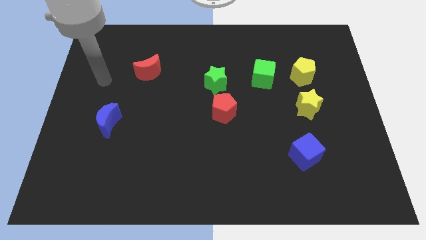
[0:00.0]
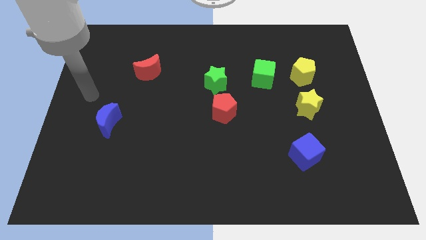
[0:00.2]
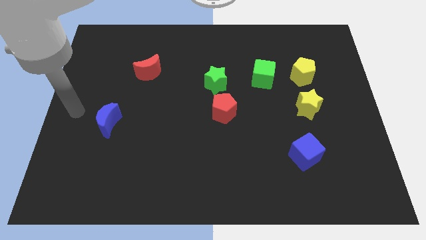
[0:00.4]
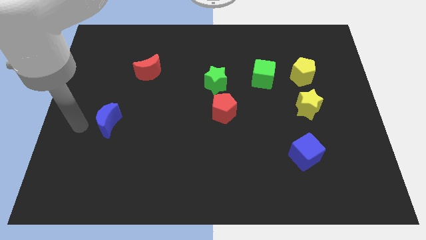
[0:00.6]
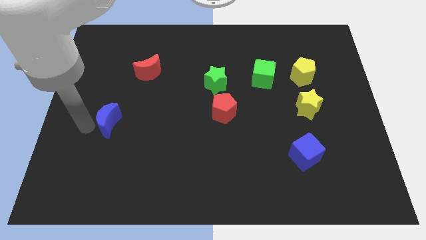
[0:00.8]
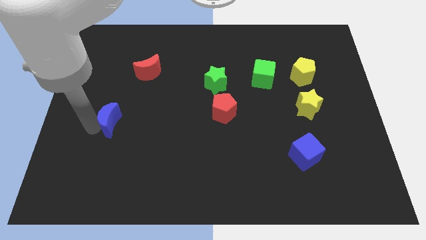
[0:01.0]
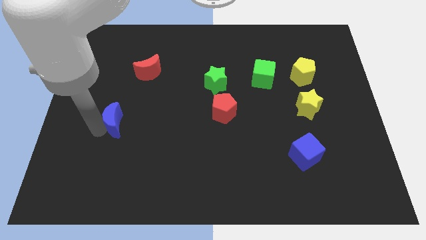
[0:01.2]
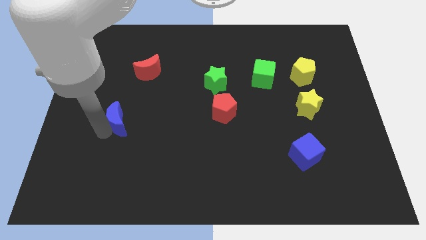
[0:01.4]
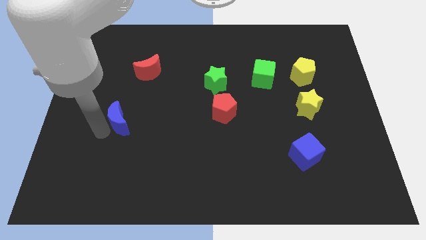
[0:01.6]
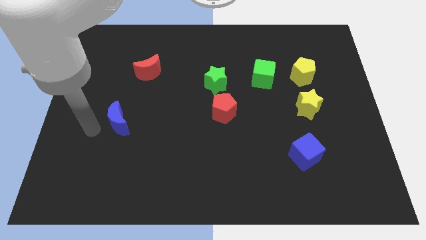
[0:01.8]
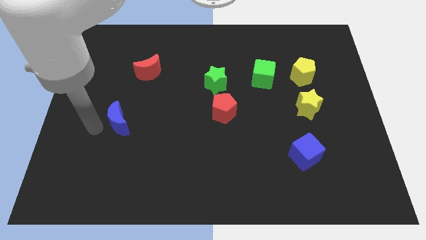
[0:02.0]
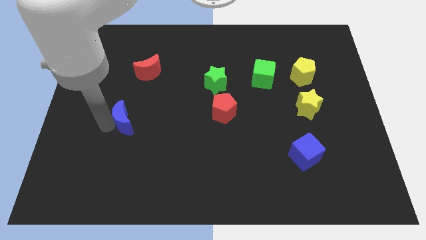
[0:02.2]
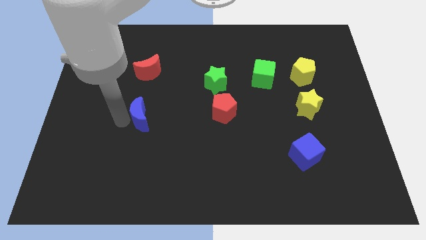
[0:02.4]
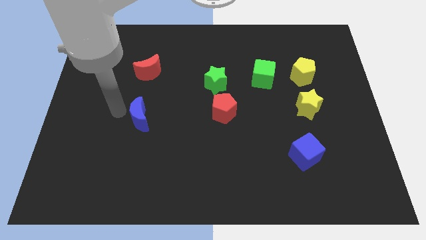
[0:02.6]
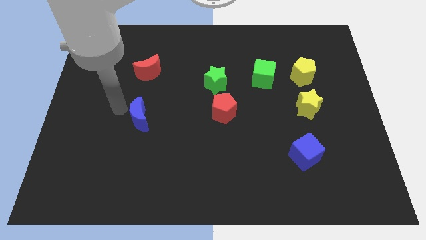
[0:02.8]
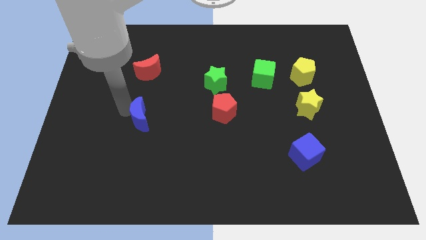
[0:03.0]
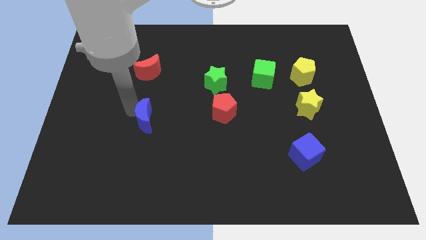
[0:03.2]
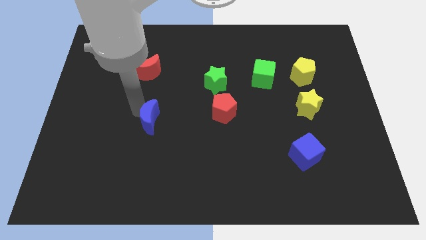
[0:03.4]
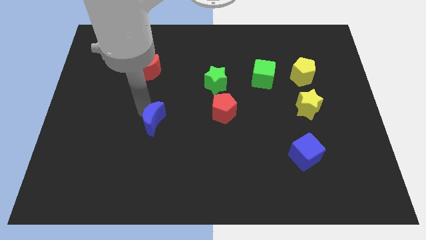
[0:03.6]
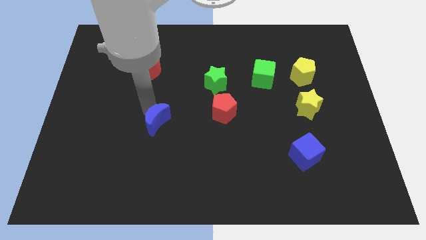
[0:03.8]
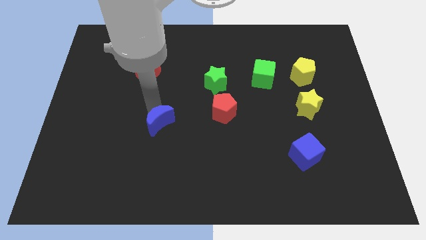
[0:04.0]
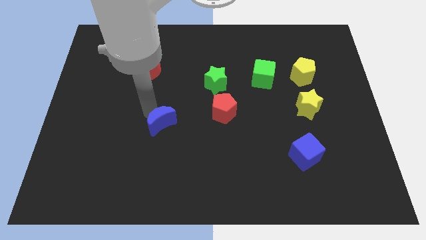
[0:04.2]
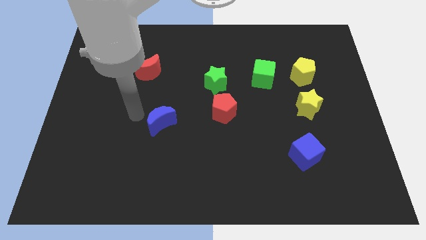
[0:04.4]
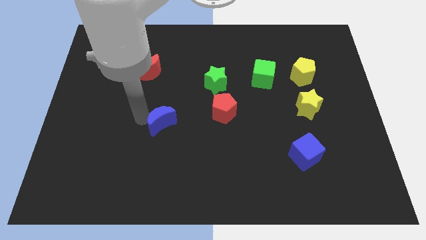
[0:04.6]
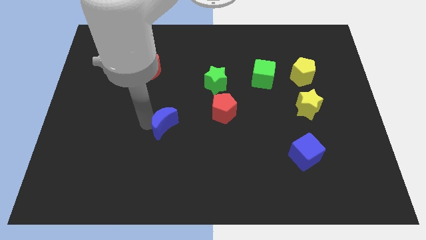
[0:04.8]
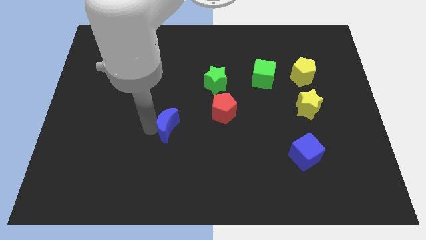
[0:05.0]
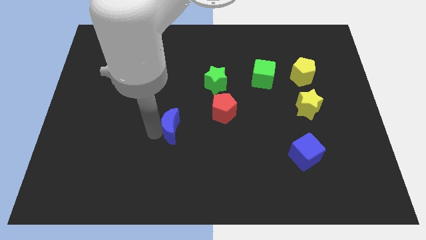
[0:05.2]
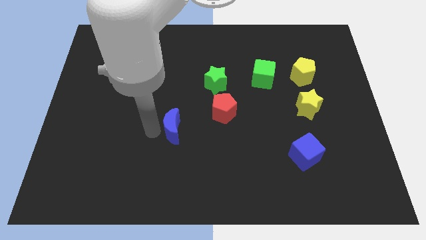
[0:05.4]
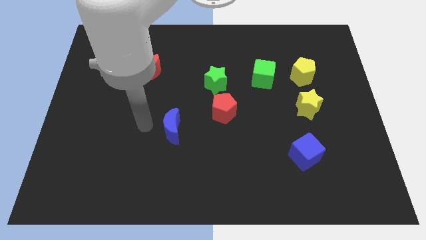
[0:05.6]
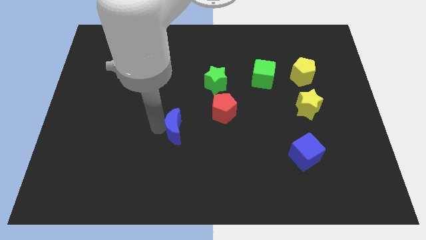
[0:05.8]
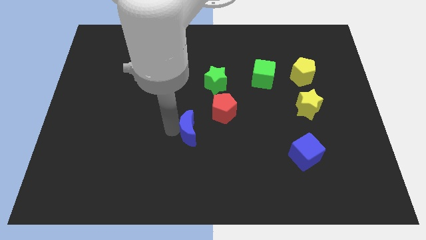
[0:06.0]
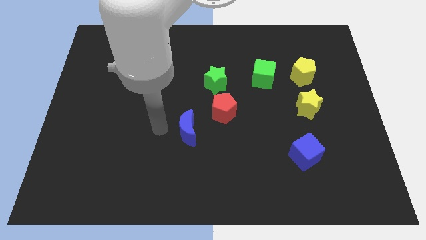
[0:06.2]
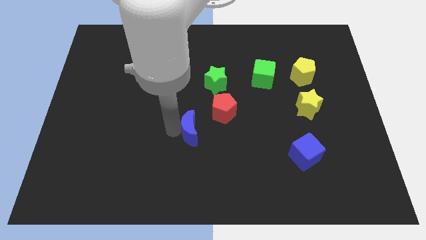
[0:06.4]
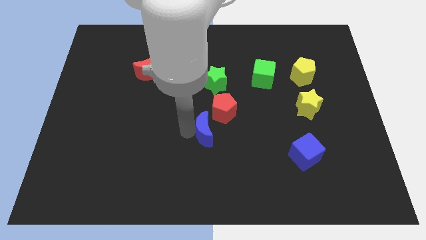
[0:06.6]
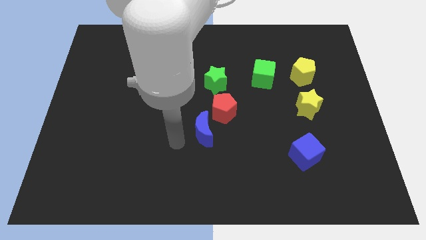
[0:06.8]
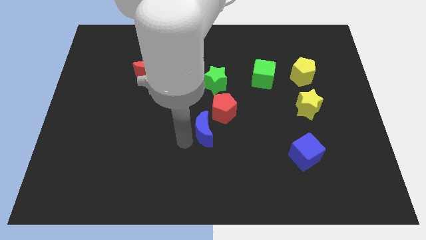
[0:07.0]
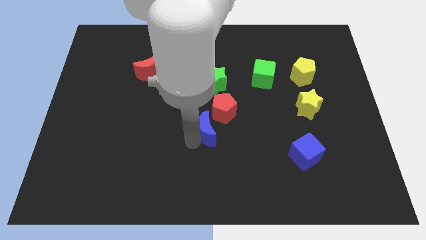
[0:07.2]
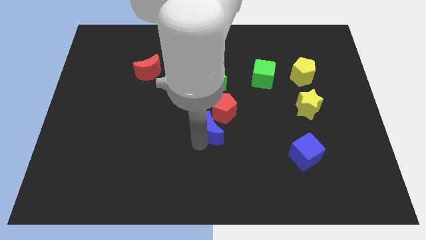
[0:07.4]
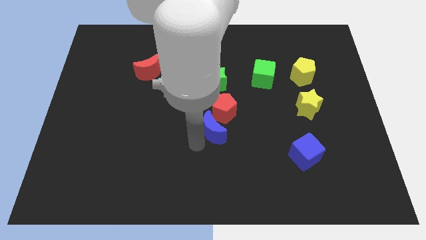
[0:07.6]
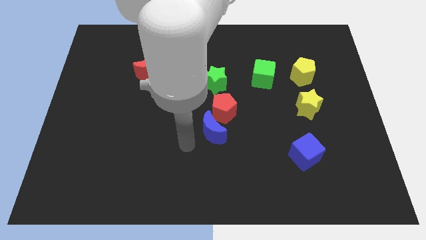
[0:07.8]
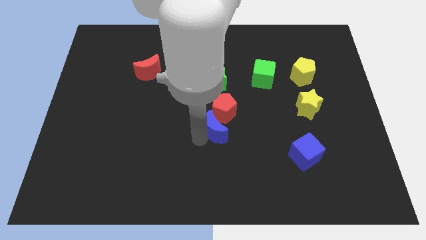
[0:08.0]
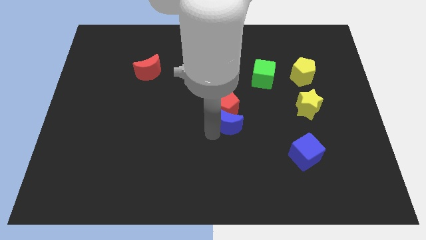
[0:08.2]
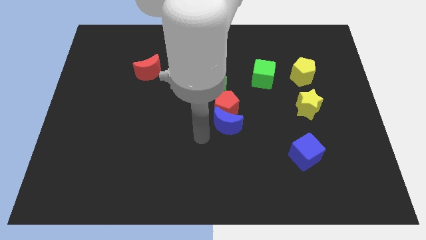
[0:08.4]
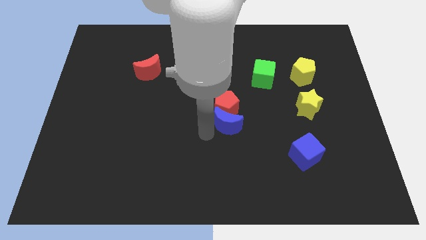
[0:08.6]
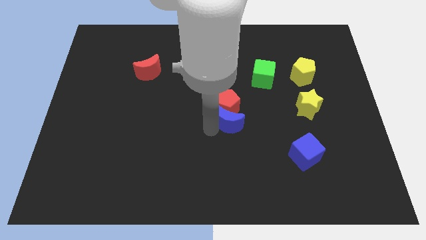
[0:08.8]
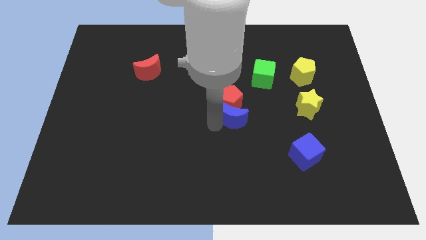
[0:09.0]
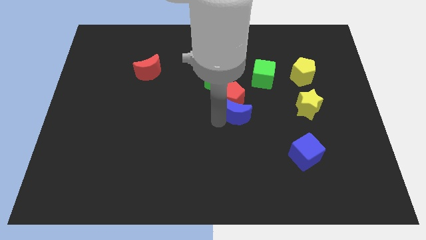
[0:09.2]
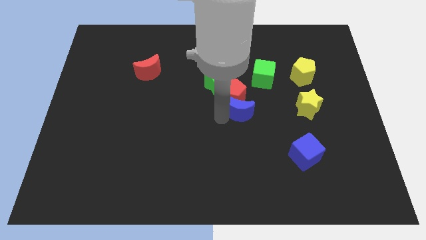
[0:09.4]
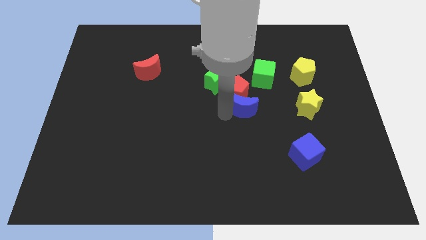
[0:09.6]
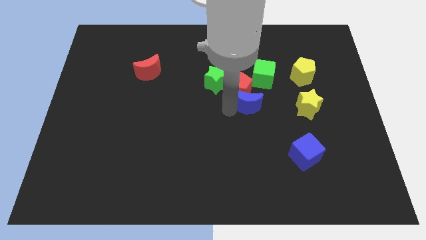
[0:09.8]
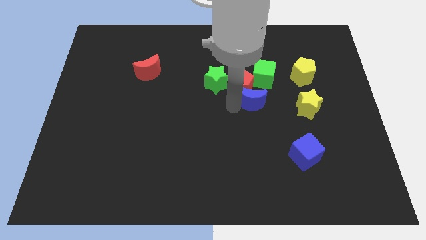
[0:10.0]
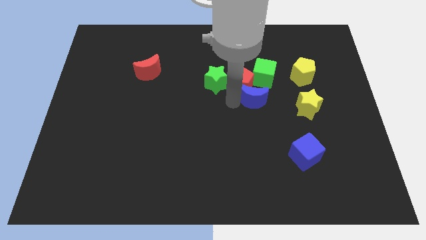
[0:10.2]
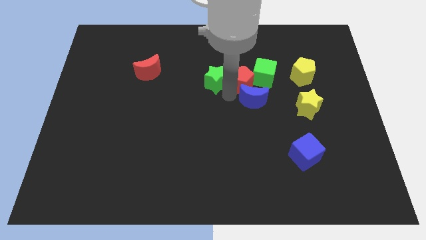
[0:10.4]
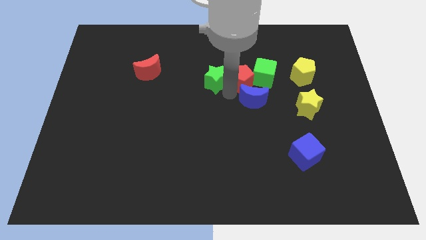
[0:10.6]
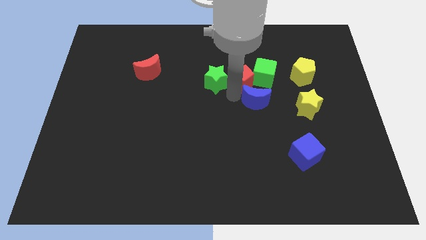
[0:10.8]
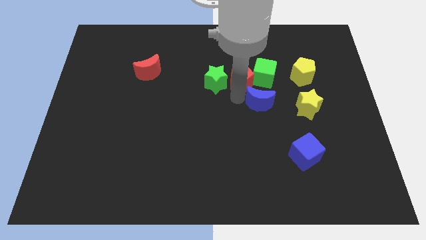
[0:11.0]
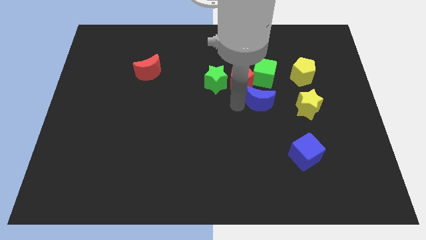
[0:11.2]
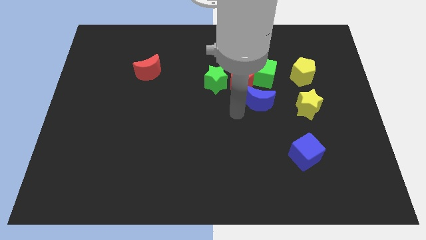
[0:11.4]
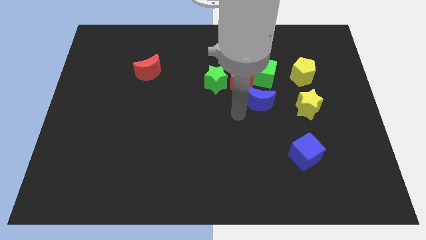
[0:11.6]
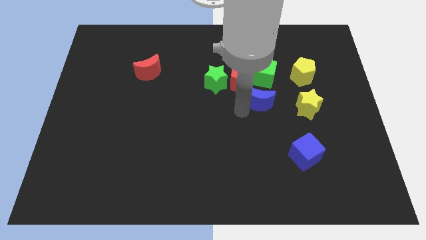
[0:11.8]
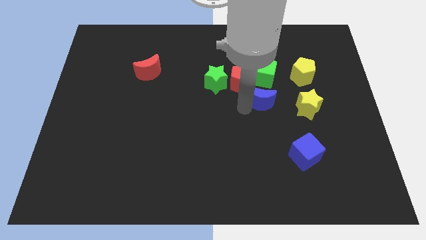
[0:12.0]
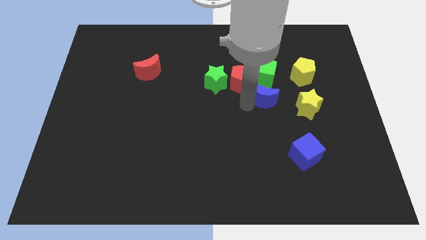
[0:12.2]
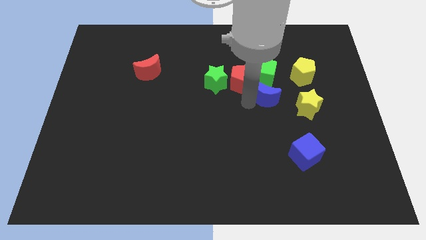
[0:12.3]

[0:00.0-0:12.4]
push the blue moon just right of the green star
